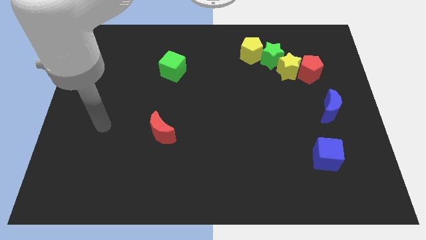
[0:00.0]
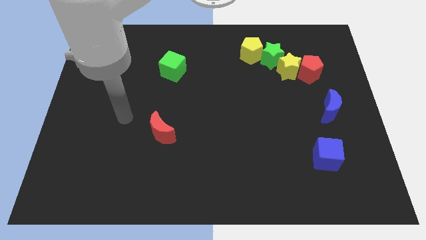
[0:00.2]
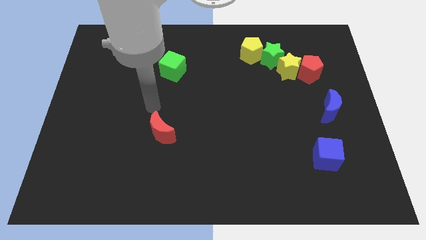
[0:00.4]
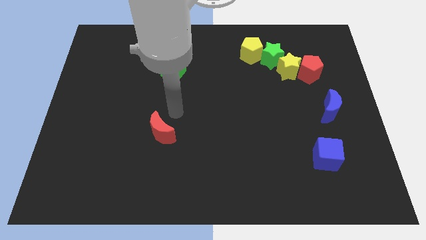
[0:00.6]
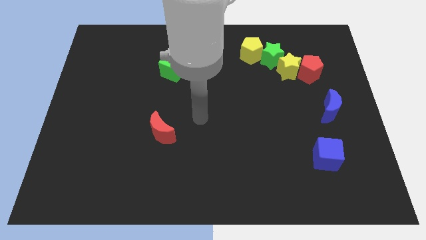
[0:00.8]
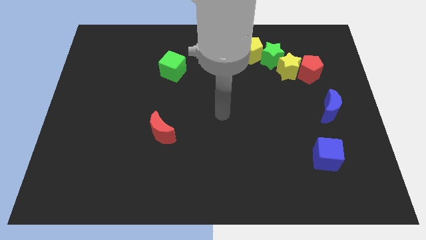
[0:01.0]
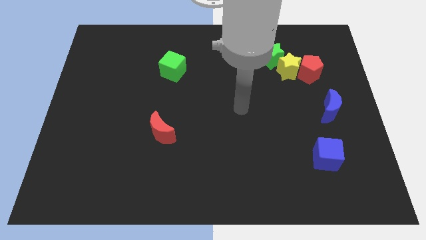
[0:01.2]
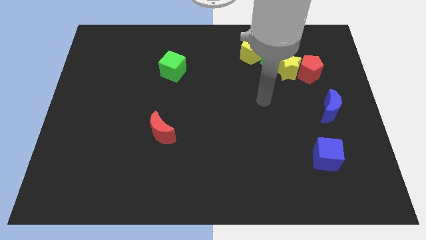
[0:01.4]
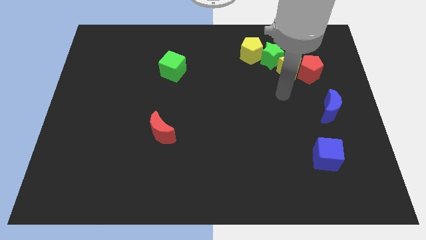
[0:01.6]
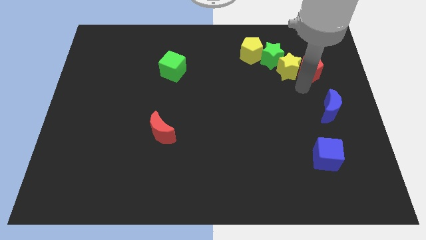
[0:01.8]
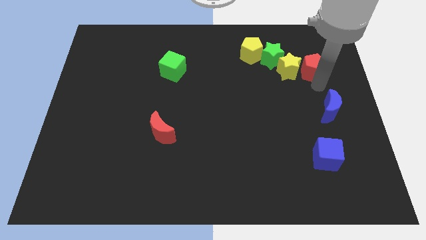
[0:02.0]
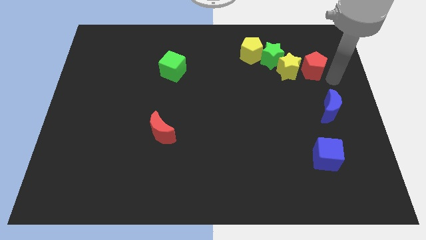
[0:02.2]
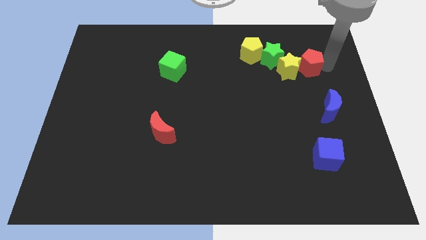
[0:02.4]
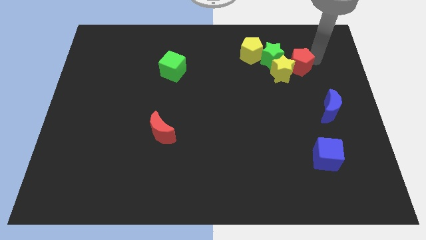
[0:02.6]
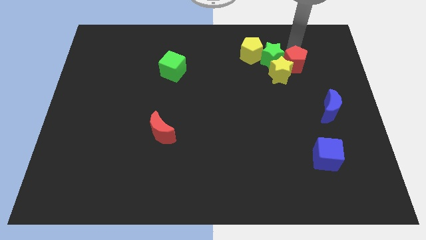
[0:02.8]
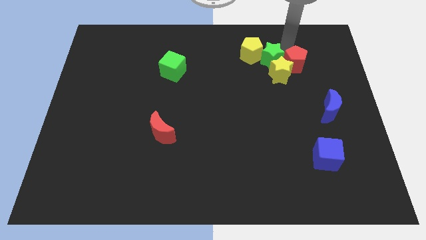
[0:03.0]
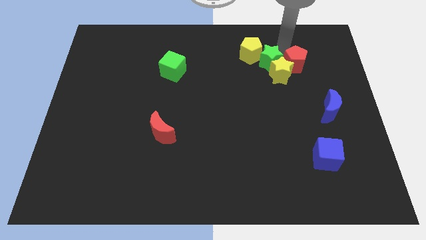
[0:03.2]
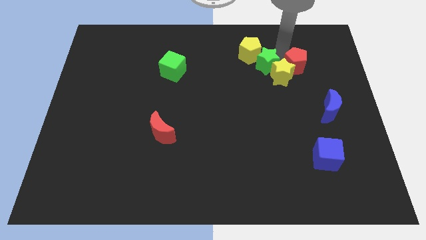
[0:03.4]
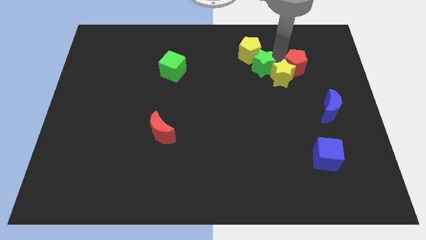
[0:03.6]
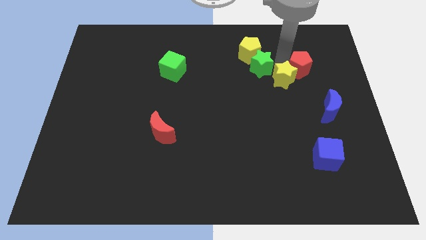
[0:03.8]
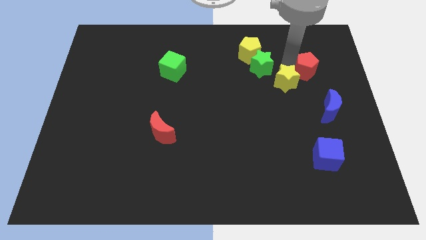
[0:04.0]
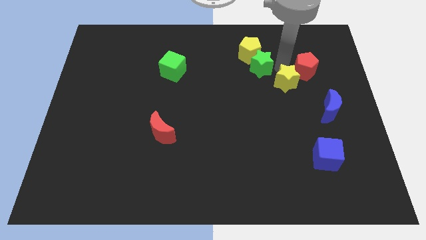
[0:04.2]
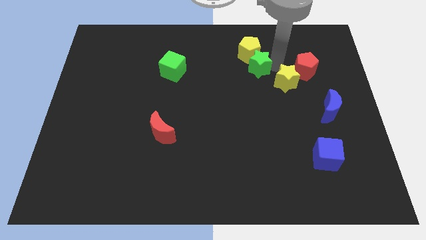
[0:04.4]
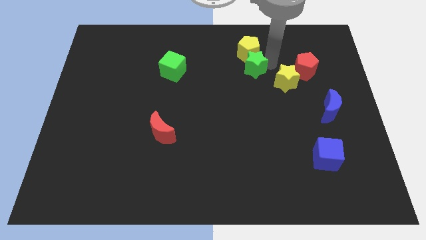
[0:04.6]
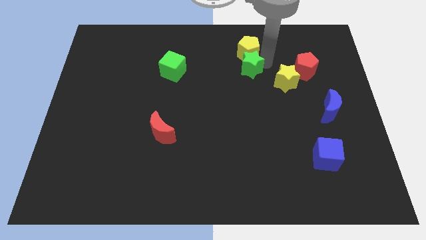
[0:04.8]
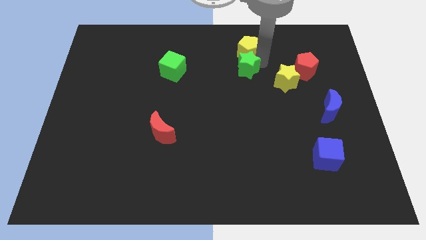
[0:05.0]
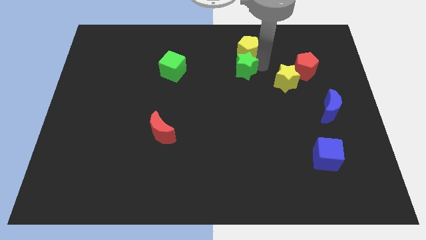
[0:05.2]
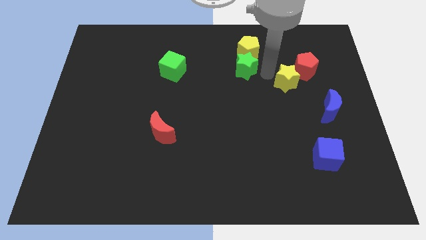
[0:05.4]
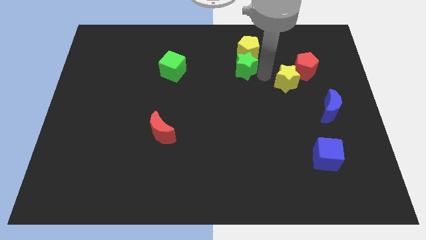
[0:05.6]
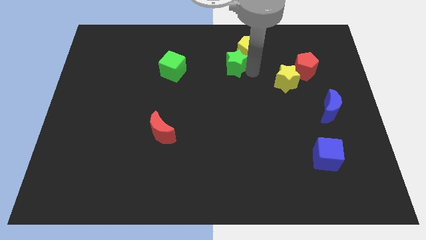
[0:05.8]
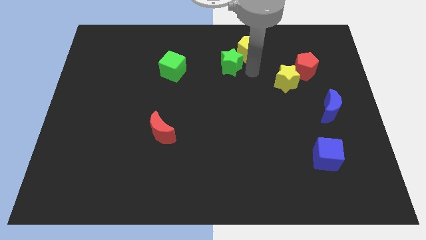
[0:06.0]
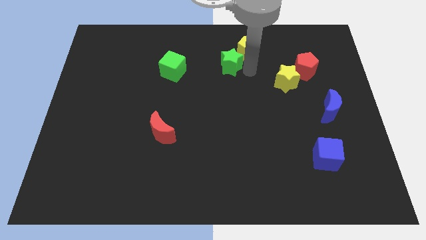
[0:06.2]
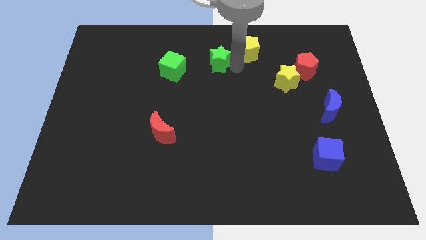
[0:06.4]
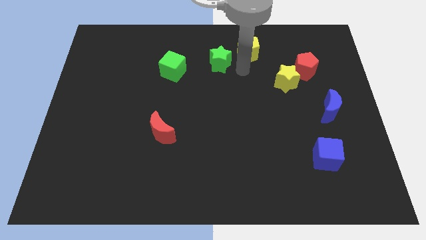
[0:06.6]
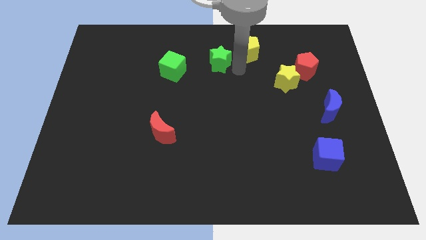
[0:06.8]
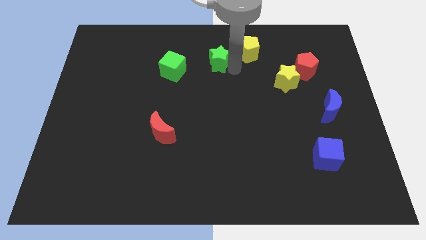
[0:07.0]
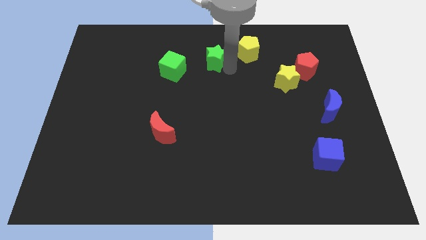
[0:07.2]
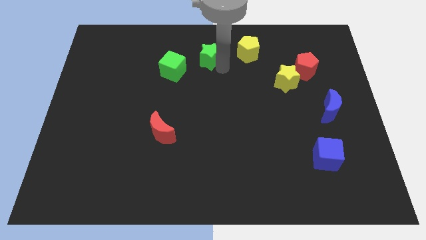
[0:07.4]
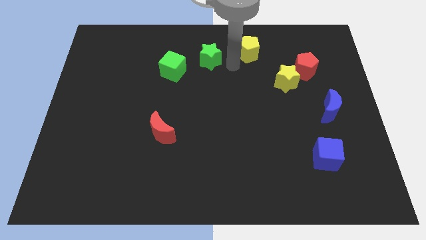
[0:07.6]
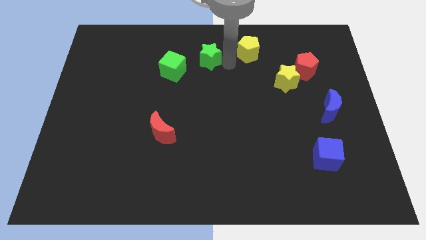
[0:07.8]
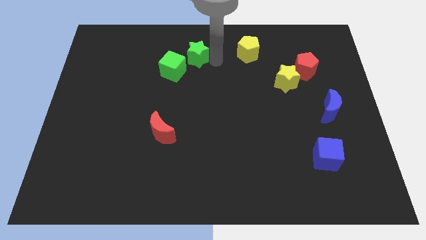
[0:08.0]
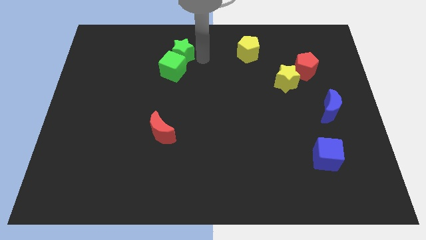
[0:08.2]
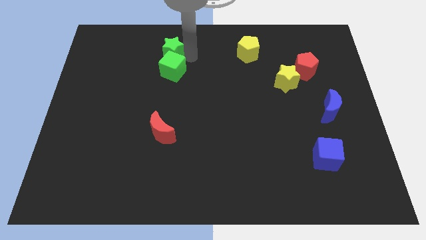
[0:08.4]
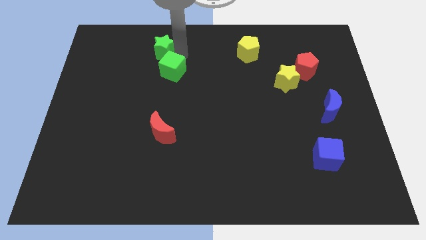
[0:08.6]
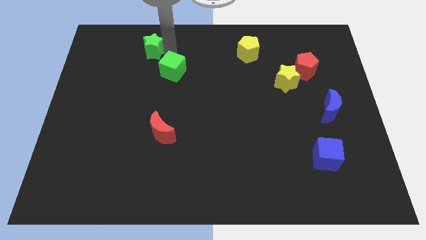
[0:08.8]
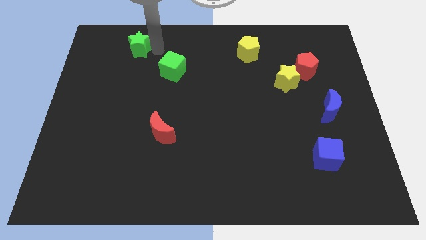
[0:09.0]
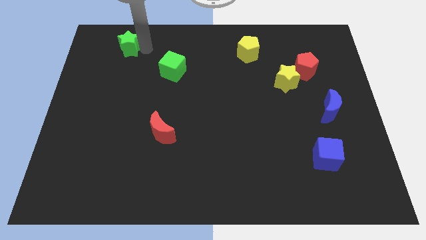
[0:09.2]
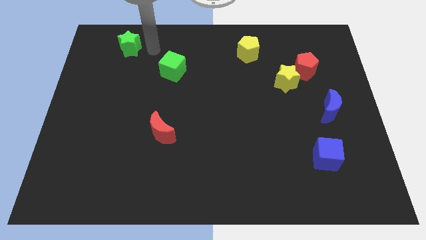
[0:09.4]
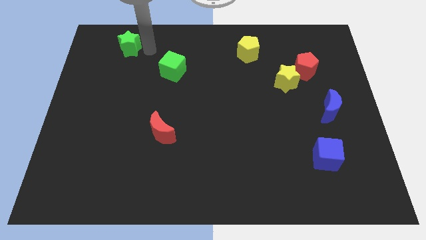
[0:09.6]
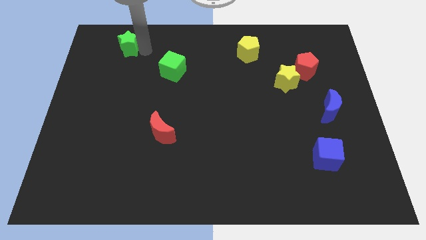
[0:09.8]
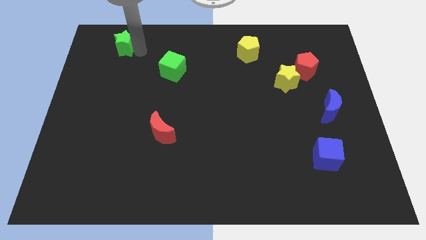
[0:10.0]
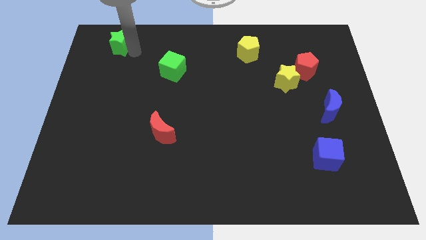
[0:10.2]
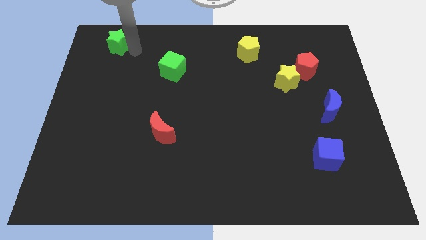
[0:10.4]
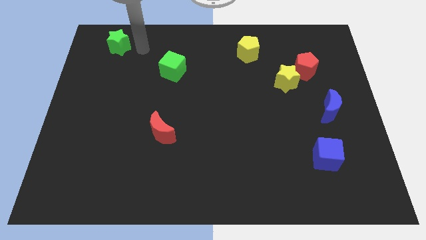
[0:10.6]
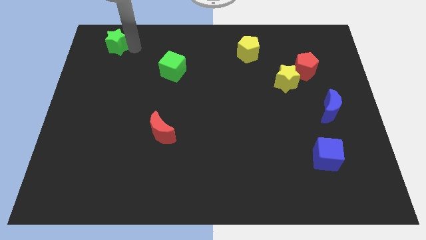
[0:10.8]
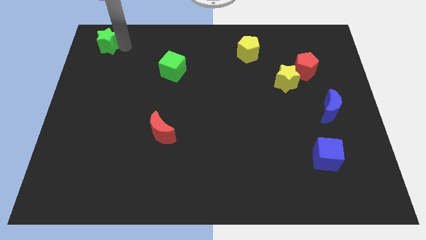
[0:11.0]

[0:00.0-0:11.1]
put the green star to the top left of the board

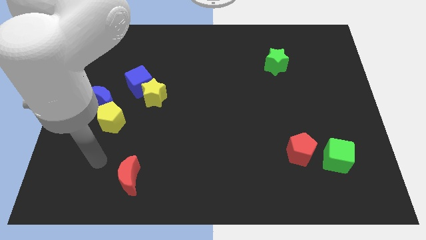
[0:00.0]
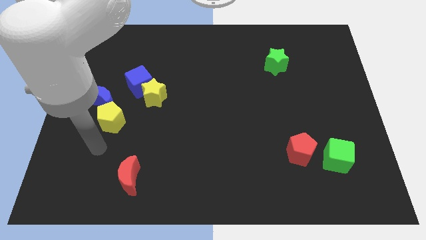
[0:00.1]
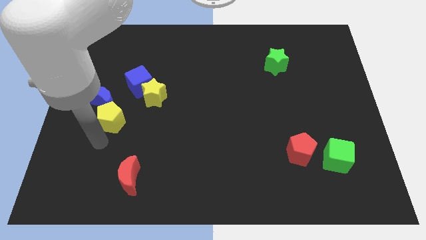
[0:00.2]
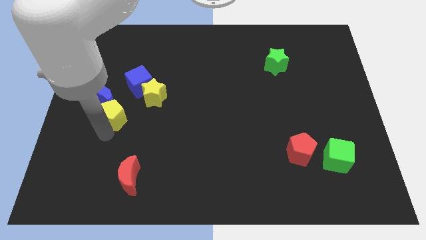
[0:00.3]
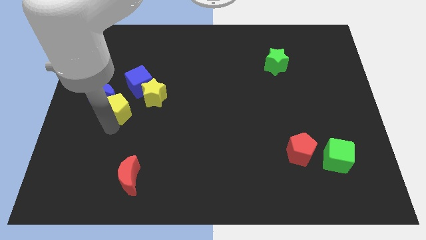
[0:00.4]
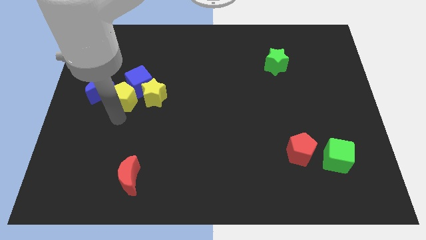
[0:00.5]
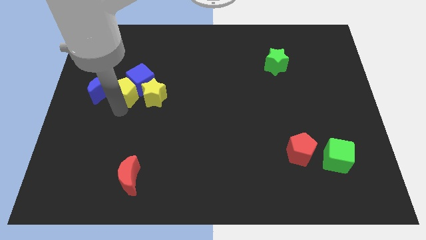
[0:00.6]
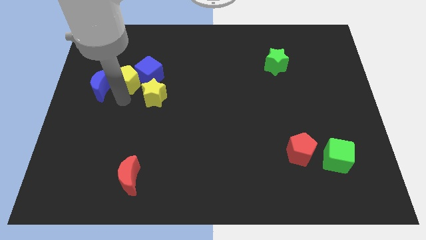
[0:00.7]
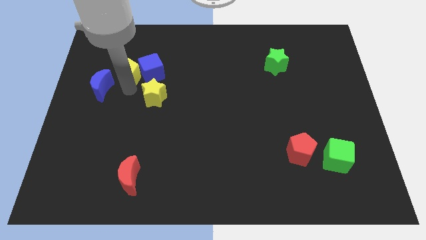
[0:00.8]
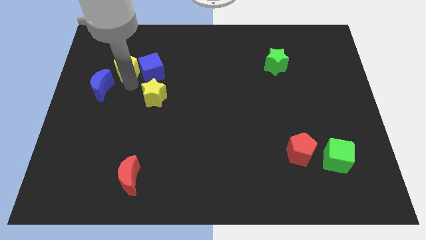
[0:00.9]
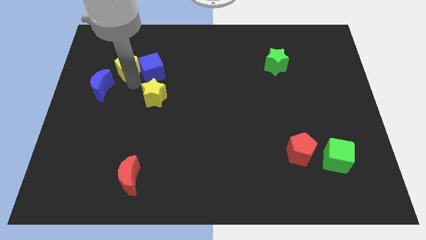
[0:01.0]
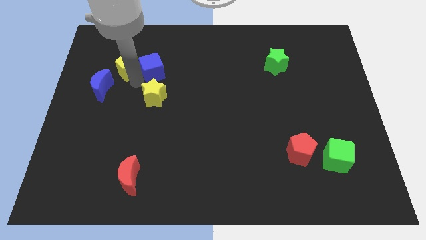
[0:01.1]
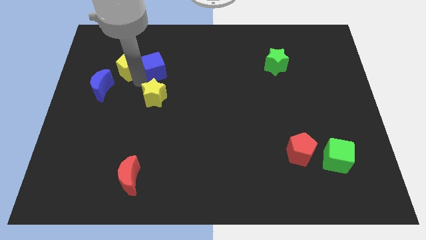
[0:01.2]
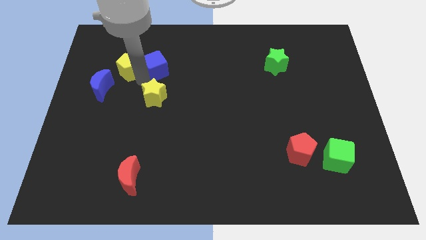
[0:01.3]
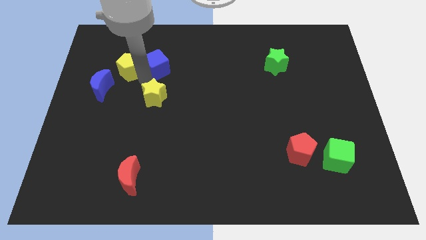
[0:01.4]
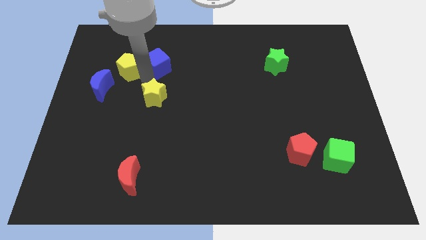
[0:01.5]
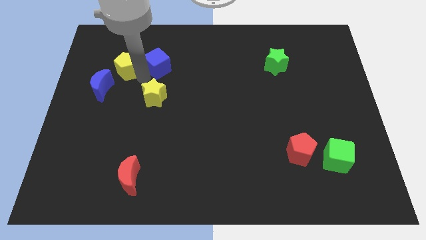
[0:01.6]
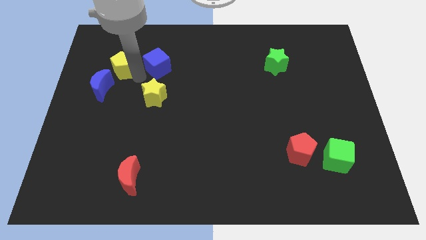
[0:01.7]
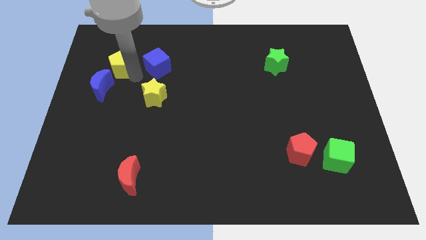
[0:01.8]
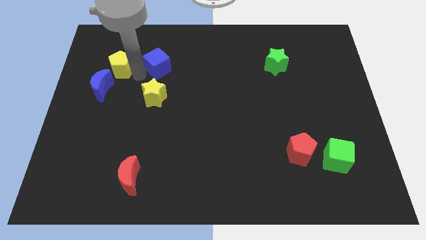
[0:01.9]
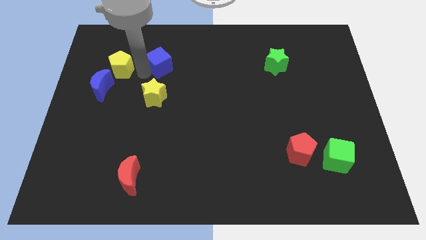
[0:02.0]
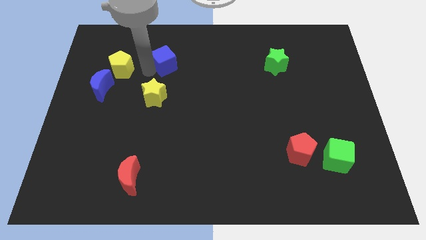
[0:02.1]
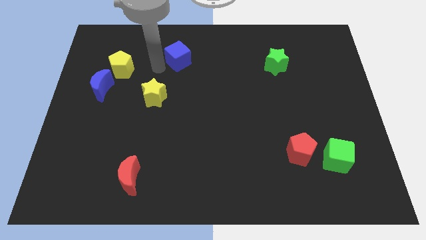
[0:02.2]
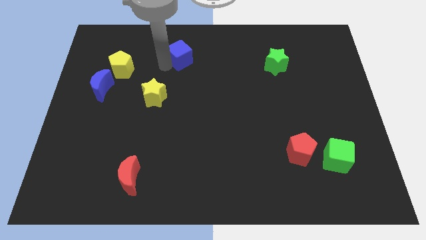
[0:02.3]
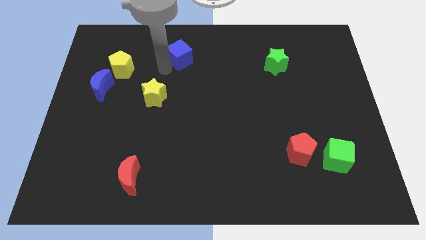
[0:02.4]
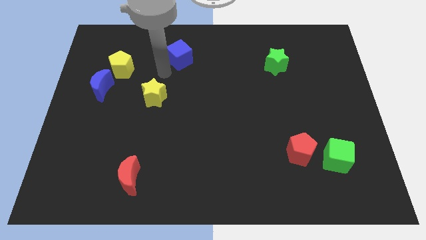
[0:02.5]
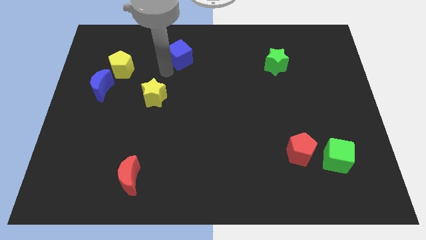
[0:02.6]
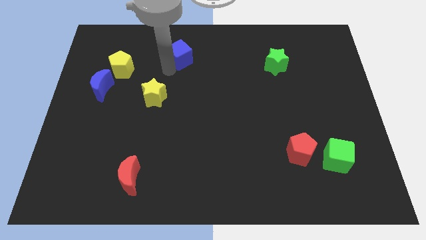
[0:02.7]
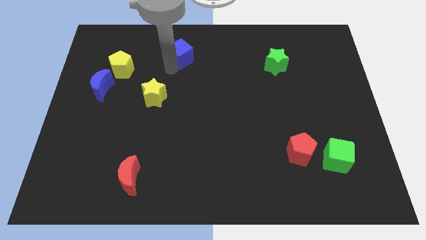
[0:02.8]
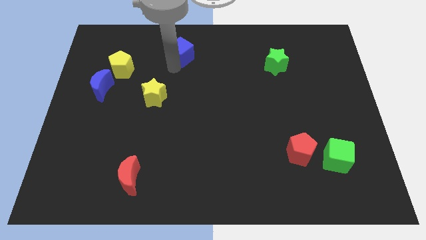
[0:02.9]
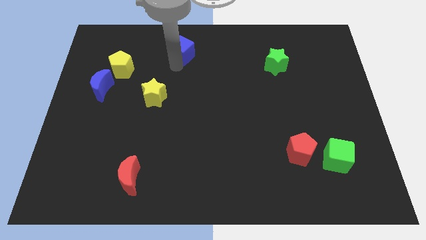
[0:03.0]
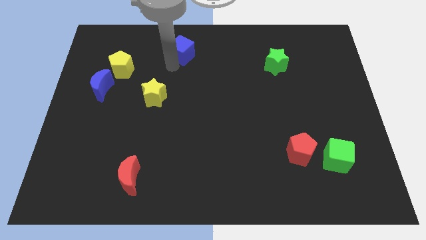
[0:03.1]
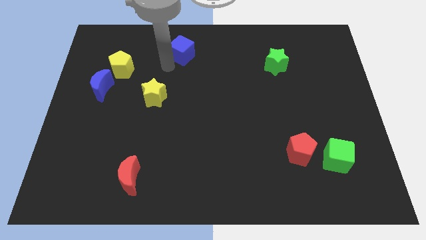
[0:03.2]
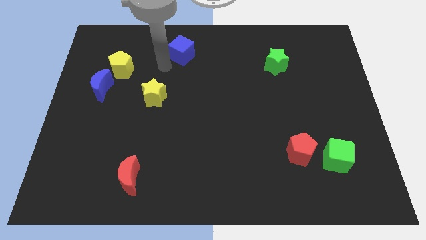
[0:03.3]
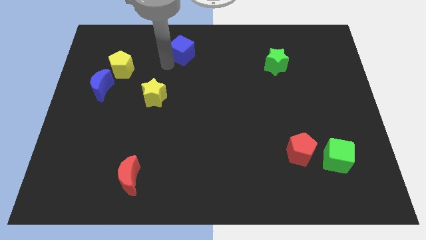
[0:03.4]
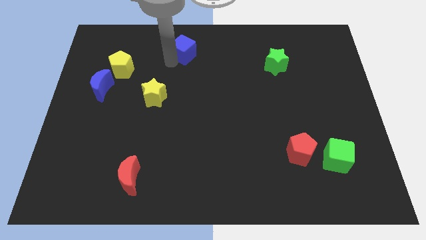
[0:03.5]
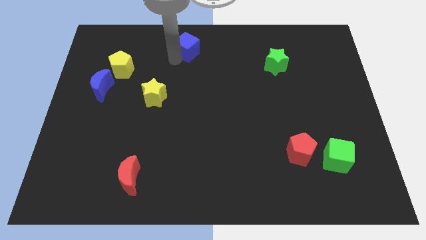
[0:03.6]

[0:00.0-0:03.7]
put the blue cube to the top
